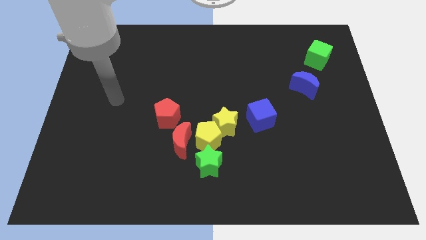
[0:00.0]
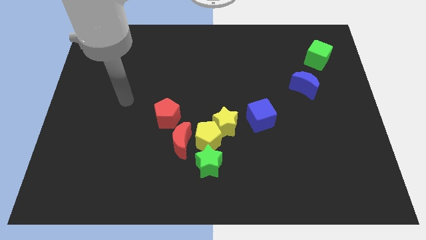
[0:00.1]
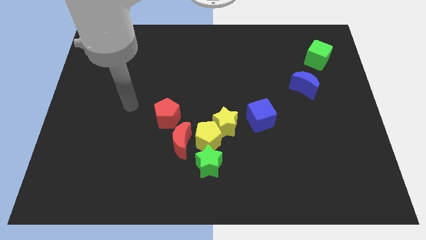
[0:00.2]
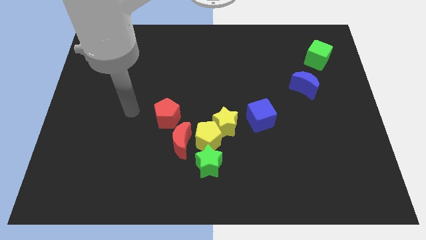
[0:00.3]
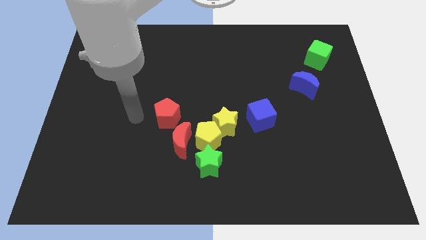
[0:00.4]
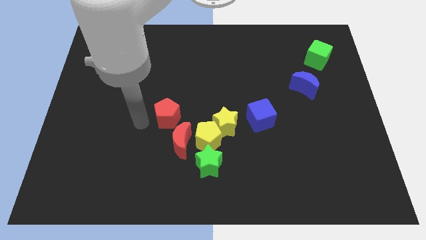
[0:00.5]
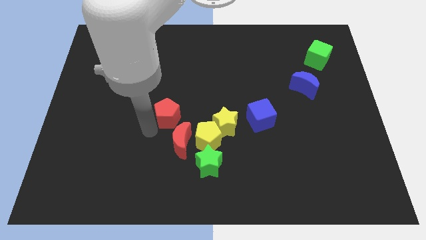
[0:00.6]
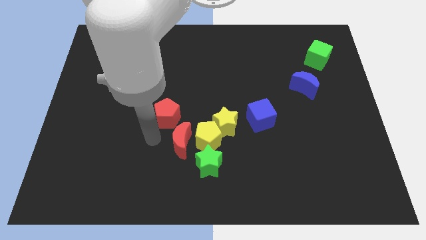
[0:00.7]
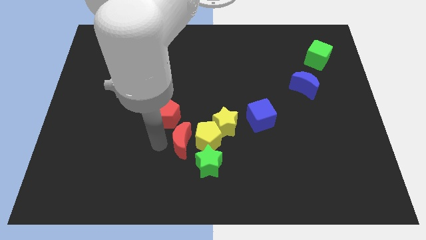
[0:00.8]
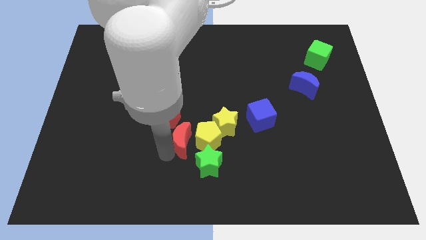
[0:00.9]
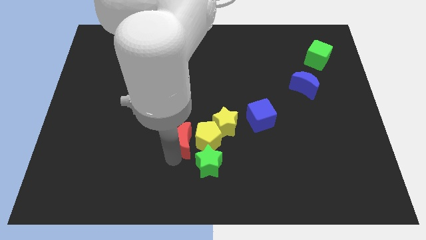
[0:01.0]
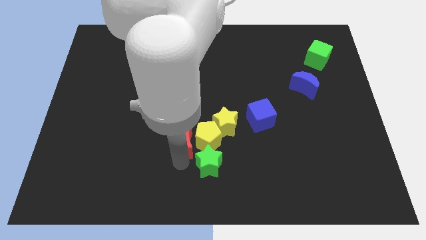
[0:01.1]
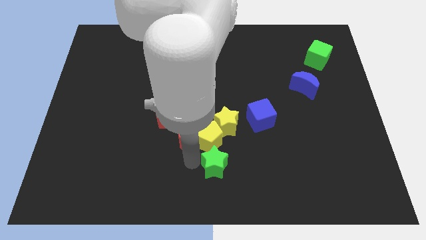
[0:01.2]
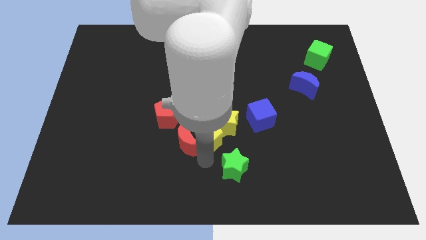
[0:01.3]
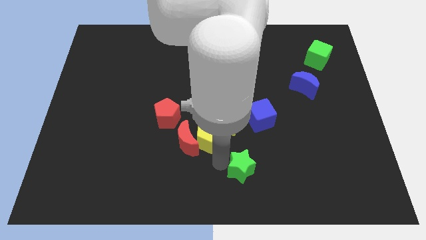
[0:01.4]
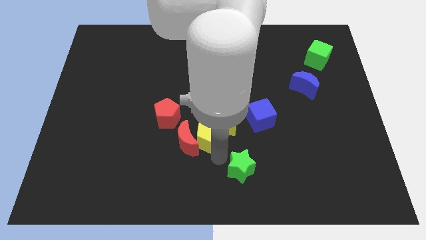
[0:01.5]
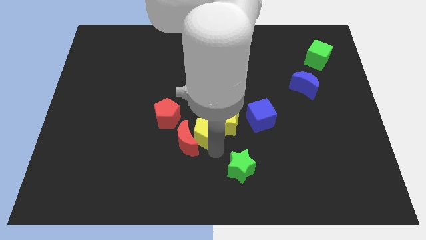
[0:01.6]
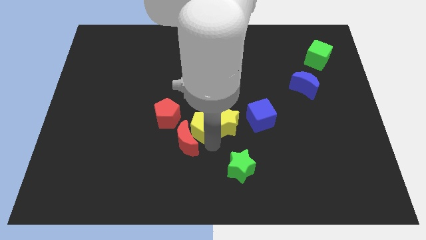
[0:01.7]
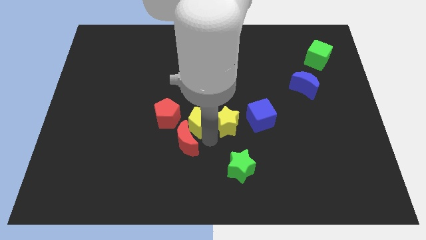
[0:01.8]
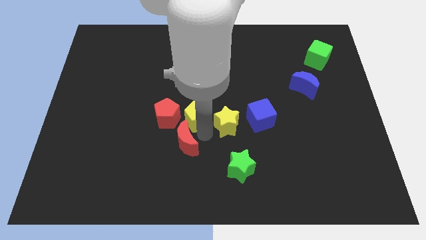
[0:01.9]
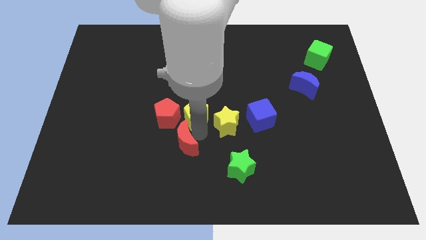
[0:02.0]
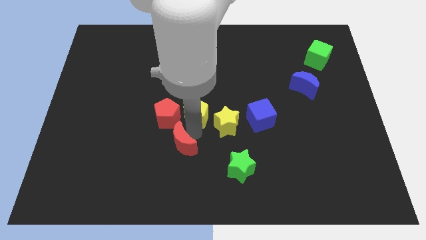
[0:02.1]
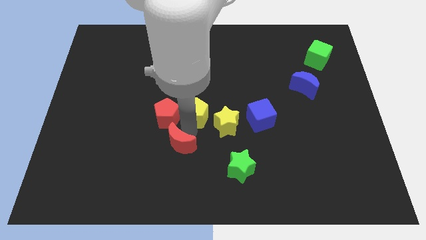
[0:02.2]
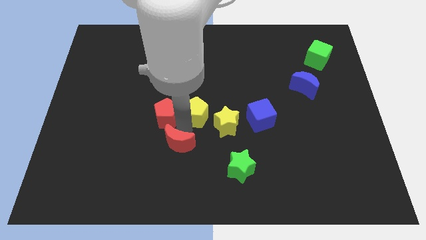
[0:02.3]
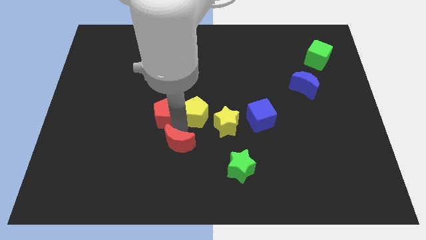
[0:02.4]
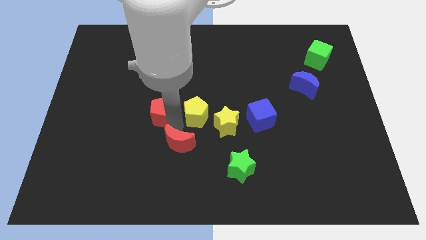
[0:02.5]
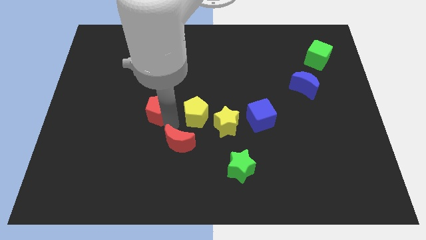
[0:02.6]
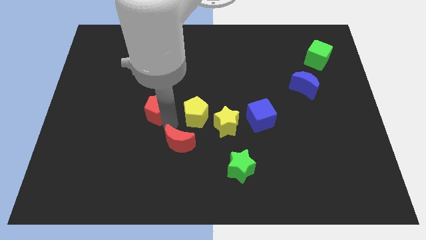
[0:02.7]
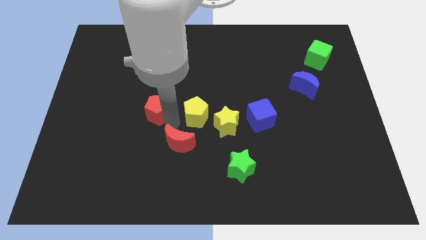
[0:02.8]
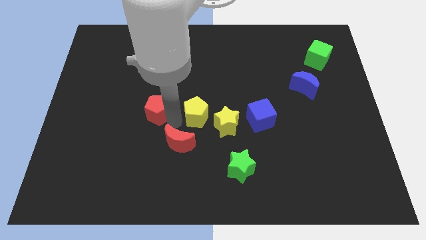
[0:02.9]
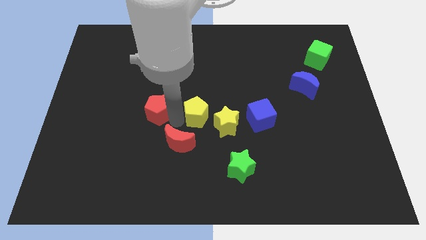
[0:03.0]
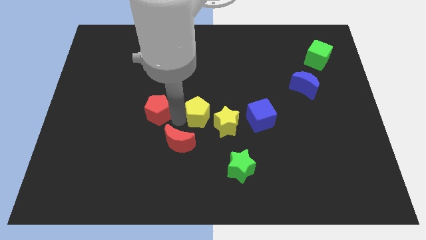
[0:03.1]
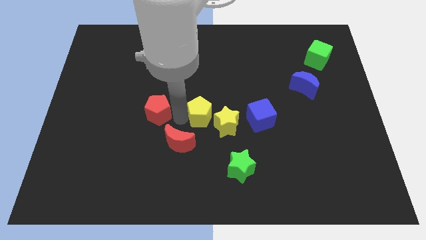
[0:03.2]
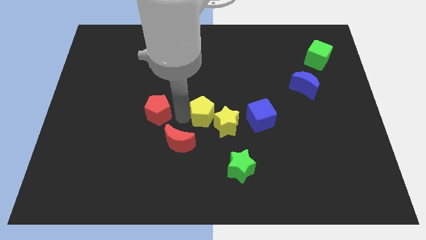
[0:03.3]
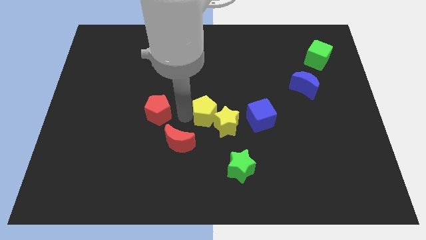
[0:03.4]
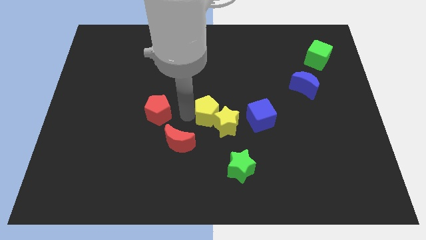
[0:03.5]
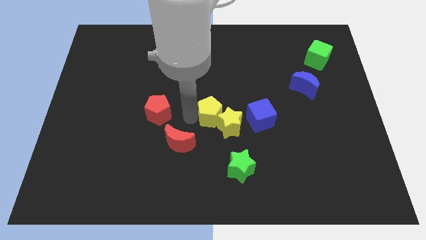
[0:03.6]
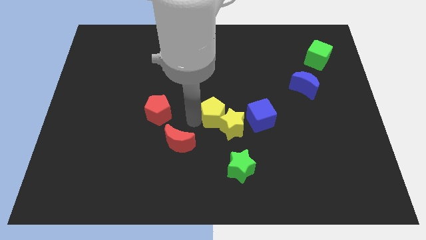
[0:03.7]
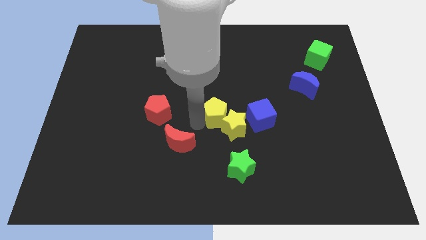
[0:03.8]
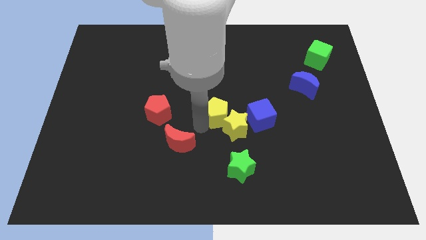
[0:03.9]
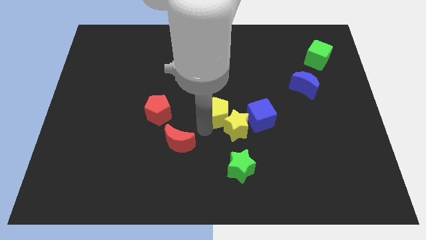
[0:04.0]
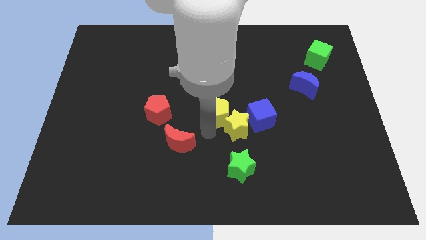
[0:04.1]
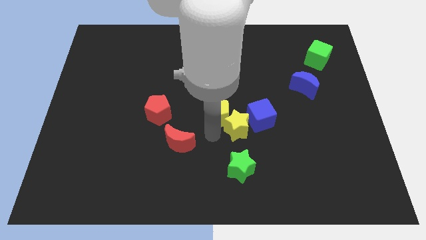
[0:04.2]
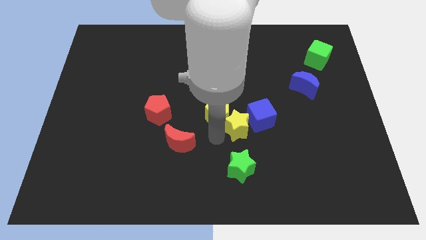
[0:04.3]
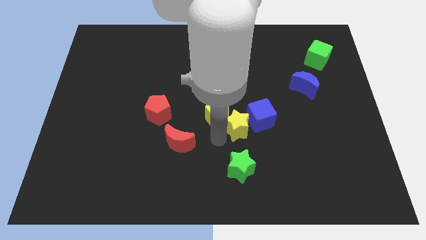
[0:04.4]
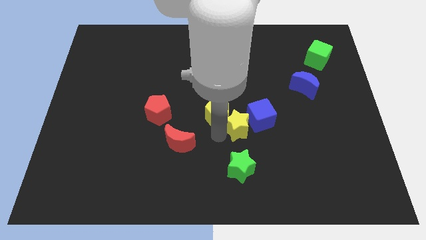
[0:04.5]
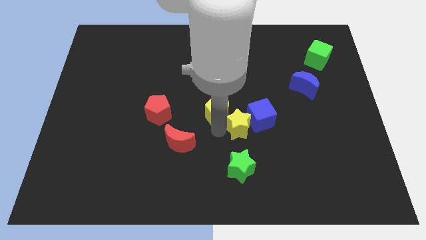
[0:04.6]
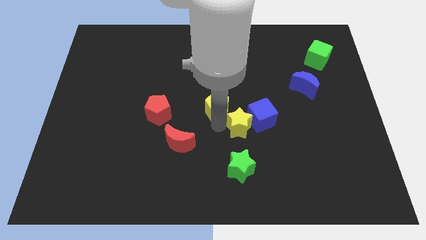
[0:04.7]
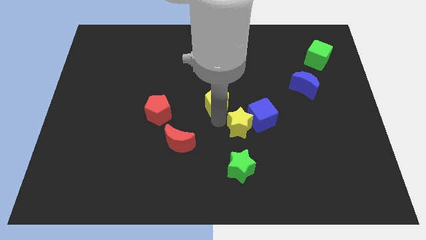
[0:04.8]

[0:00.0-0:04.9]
move the yellow pentagon away from the yellow star, red moon, and green star

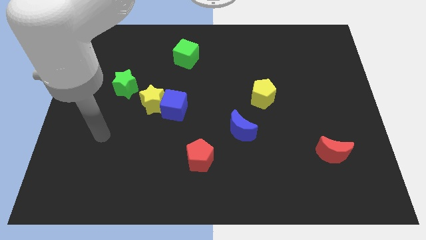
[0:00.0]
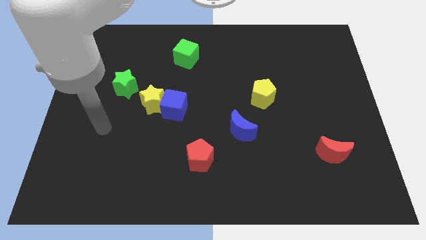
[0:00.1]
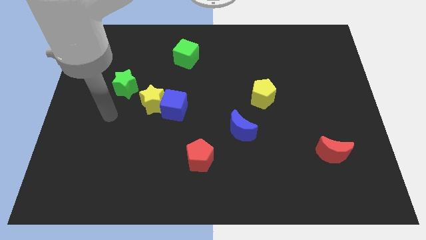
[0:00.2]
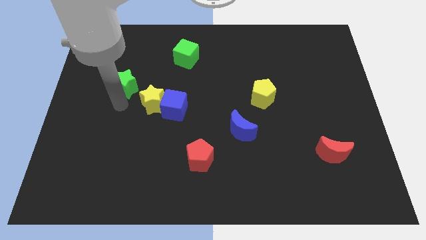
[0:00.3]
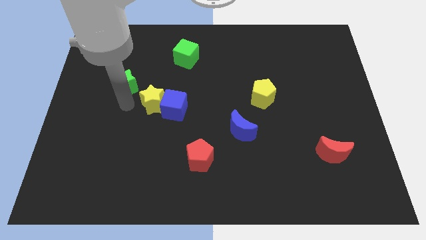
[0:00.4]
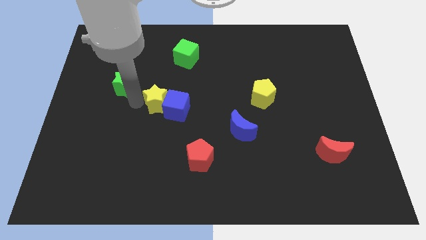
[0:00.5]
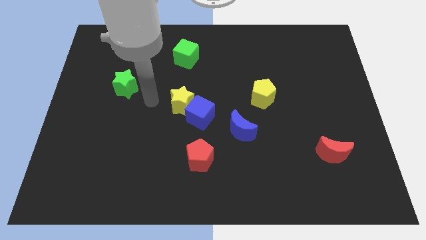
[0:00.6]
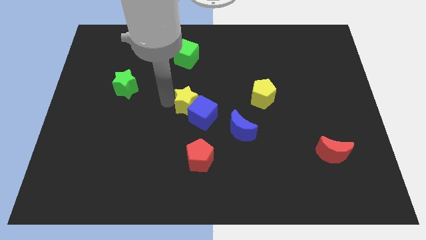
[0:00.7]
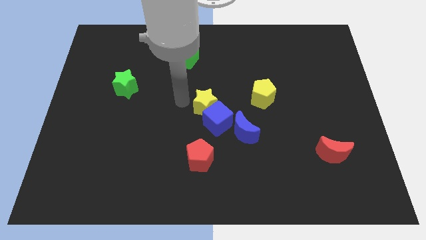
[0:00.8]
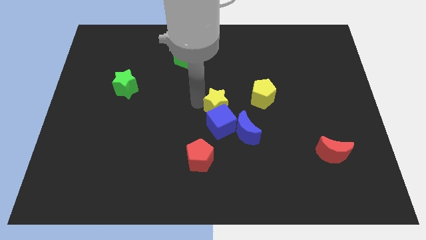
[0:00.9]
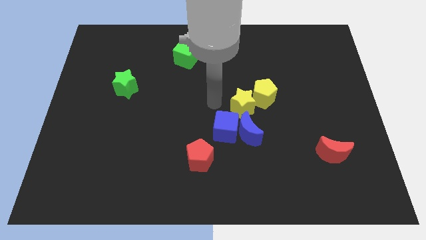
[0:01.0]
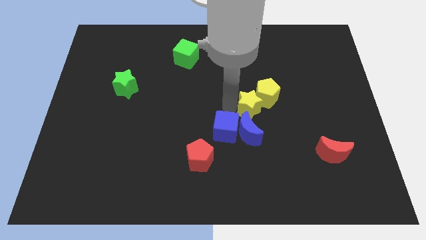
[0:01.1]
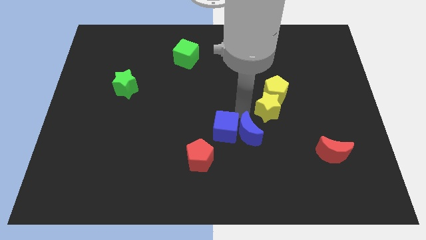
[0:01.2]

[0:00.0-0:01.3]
pull the blue cube apart from the yellow star

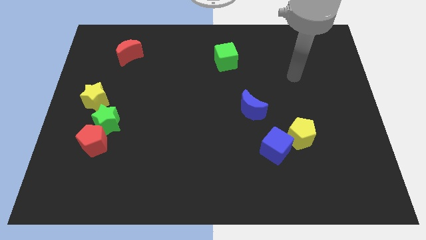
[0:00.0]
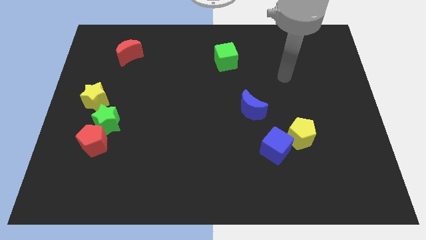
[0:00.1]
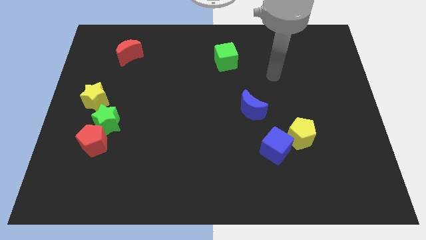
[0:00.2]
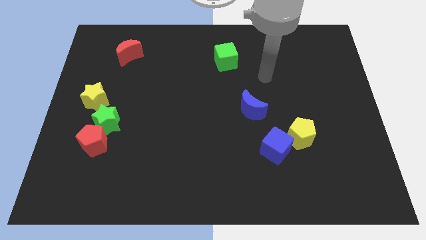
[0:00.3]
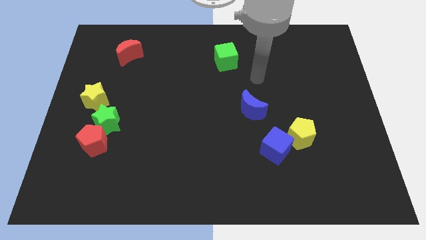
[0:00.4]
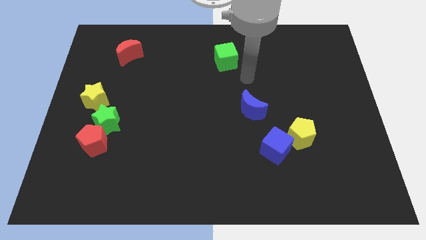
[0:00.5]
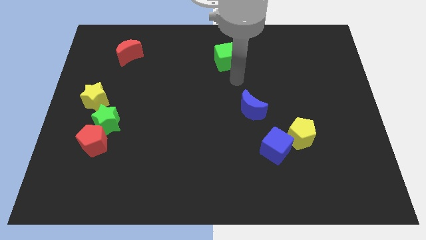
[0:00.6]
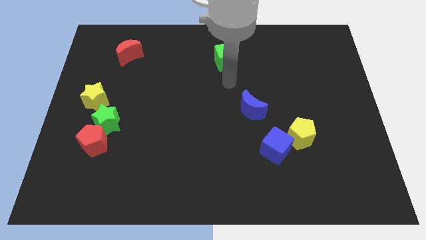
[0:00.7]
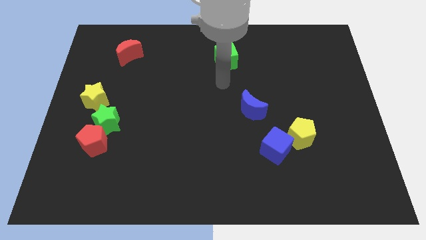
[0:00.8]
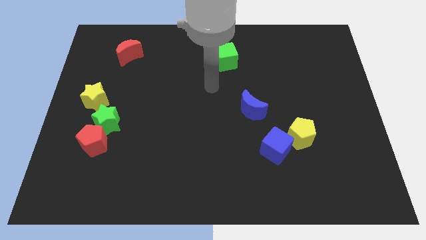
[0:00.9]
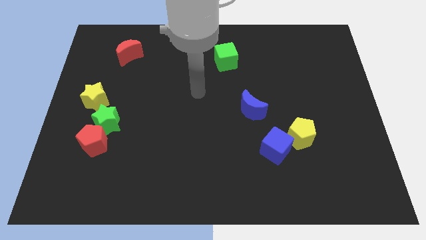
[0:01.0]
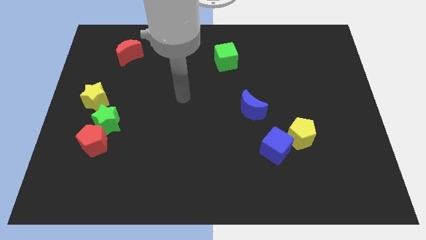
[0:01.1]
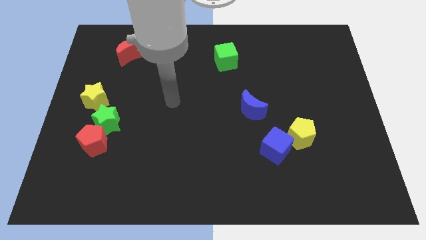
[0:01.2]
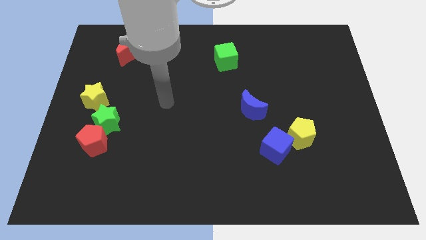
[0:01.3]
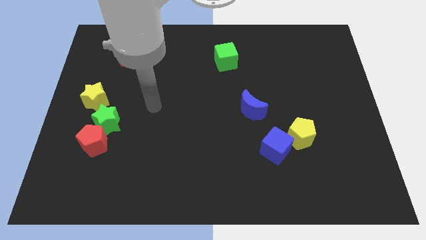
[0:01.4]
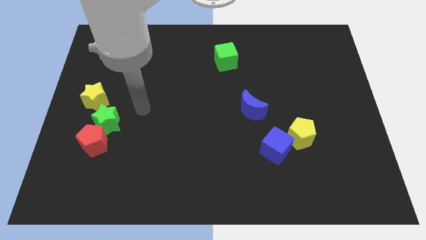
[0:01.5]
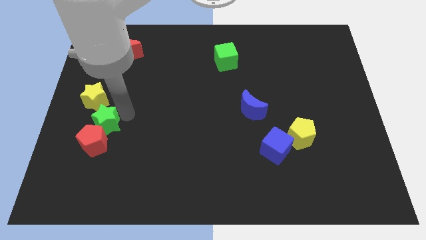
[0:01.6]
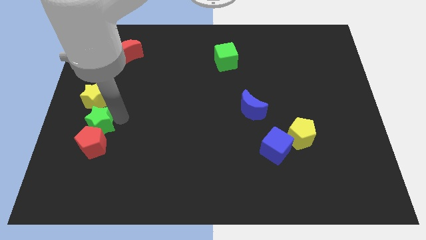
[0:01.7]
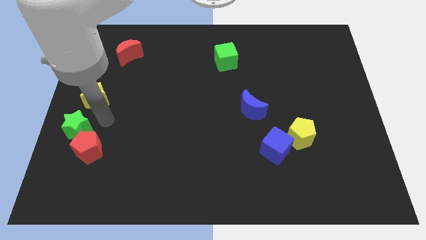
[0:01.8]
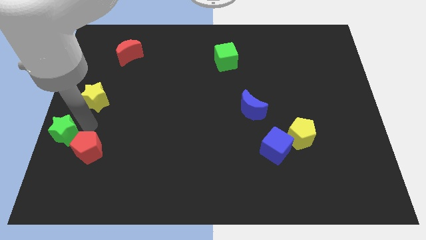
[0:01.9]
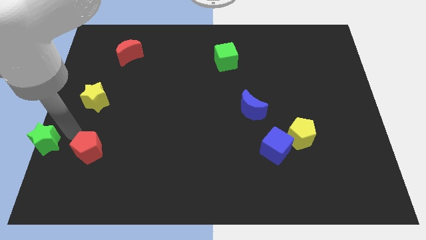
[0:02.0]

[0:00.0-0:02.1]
pull the red pentagon apart from the green star

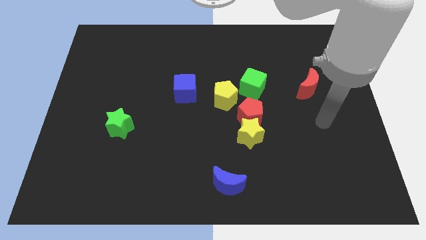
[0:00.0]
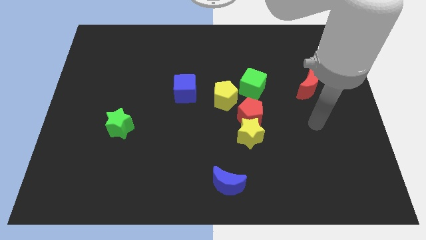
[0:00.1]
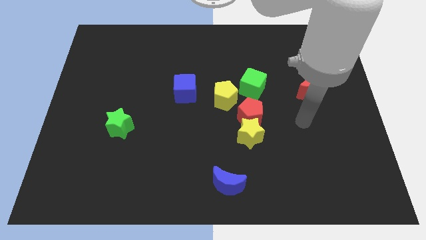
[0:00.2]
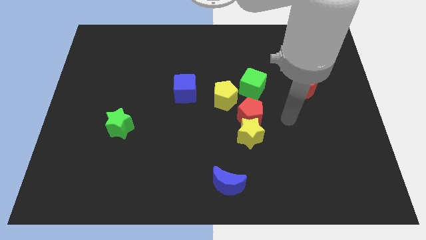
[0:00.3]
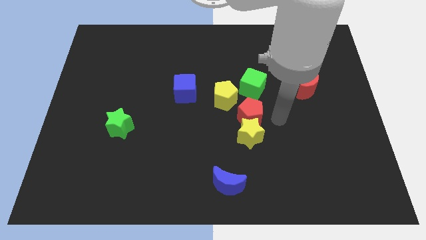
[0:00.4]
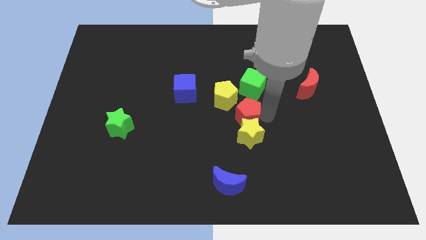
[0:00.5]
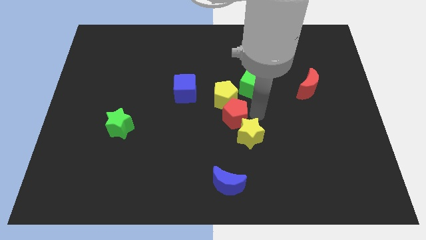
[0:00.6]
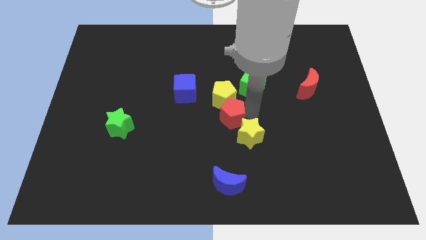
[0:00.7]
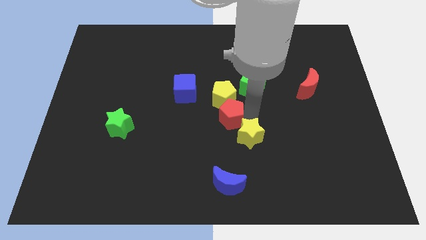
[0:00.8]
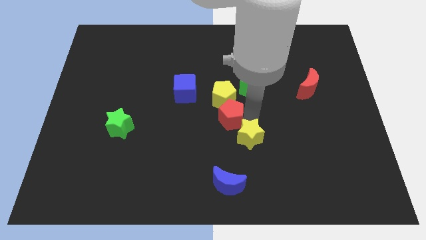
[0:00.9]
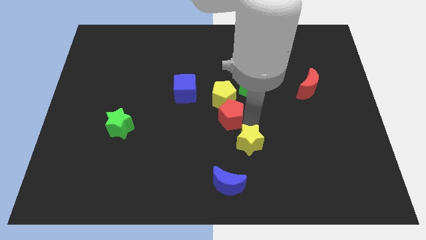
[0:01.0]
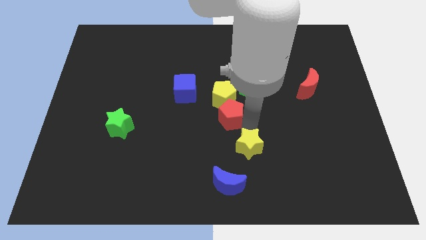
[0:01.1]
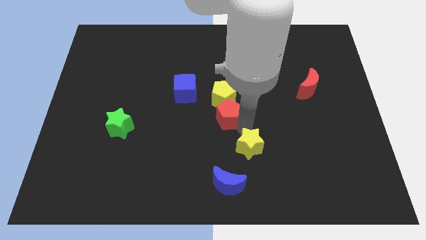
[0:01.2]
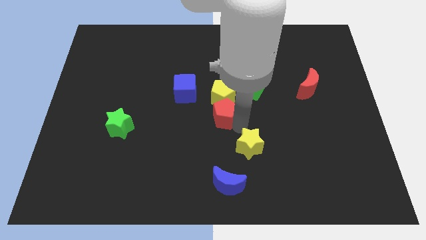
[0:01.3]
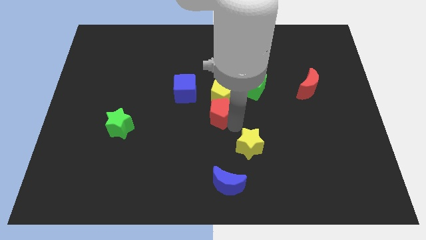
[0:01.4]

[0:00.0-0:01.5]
move the yellow star away from the red pentagon
